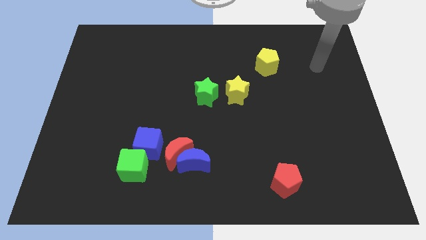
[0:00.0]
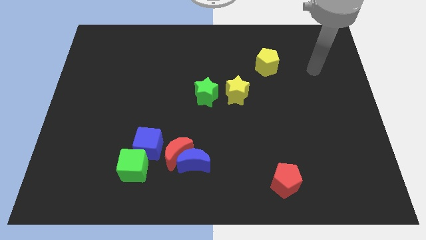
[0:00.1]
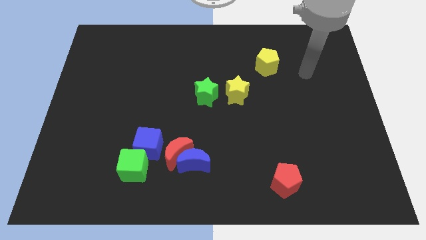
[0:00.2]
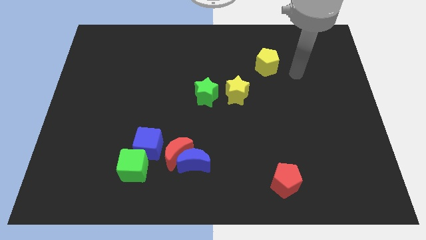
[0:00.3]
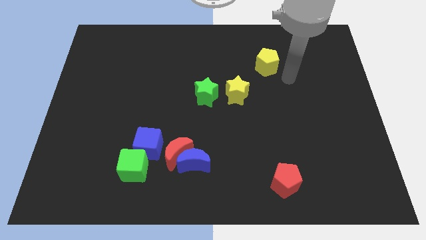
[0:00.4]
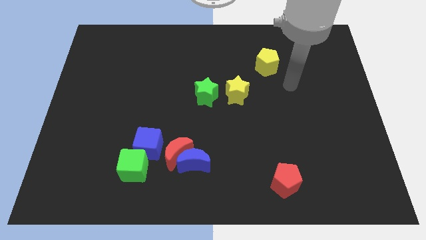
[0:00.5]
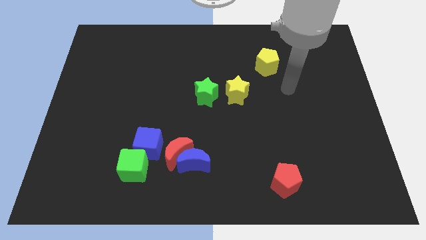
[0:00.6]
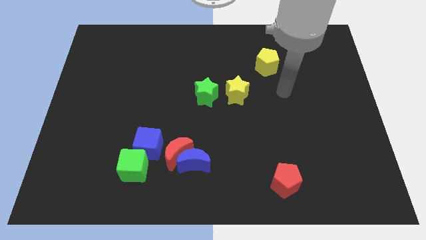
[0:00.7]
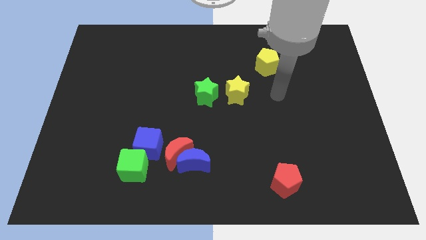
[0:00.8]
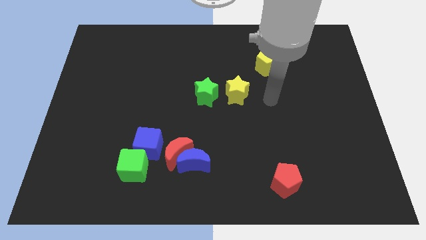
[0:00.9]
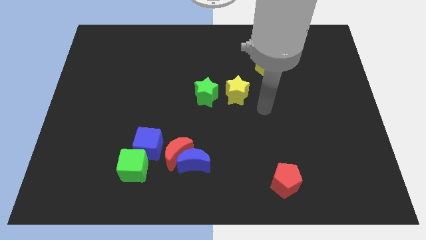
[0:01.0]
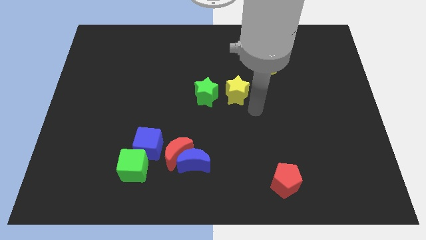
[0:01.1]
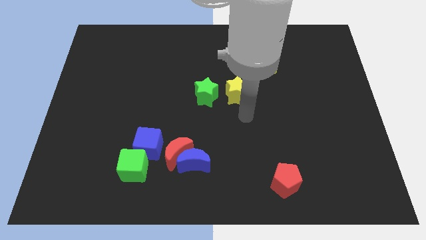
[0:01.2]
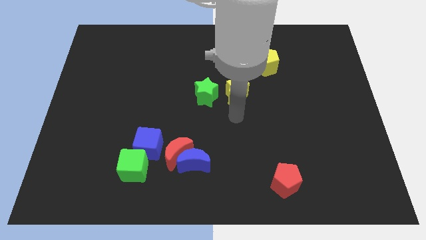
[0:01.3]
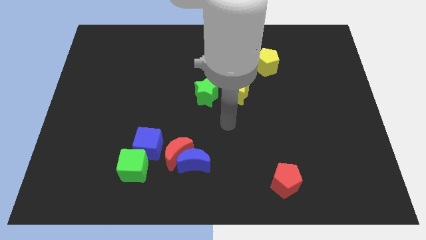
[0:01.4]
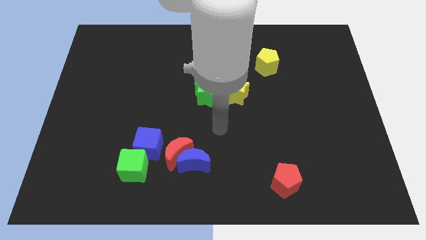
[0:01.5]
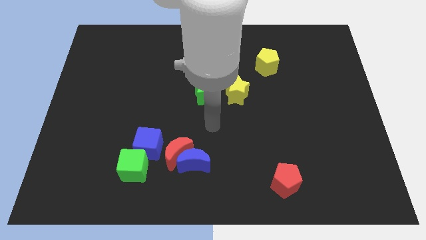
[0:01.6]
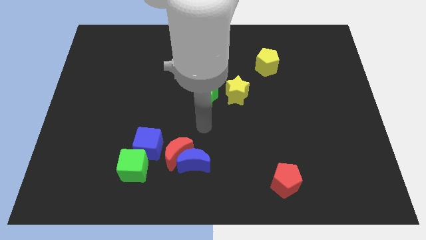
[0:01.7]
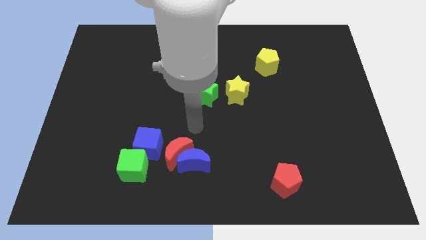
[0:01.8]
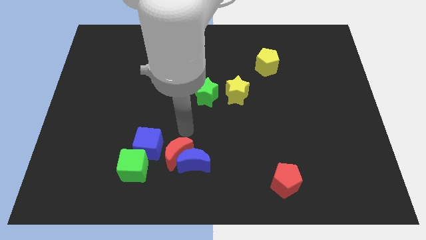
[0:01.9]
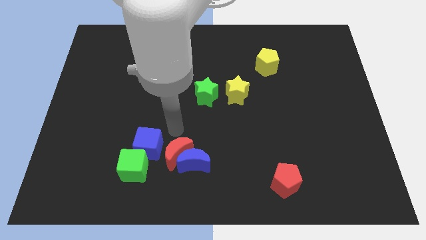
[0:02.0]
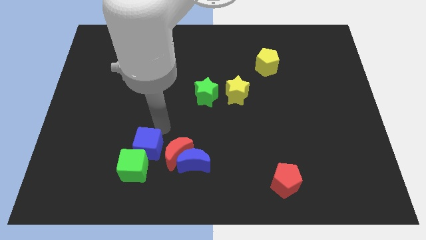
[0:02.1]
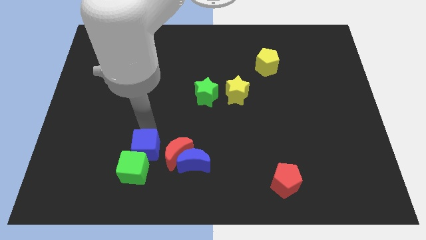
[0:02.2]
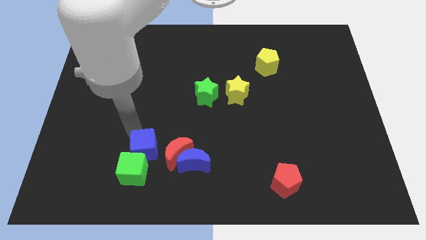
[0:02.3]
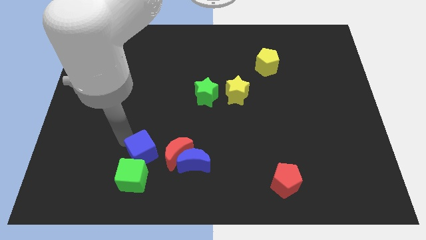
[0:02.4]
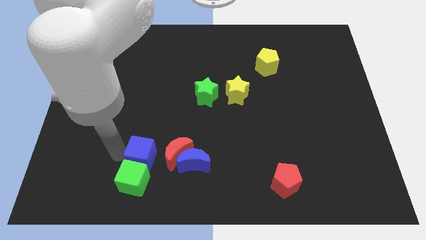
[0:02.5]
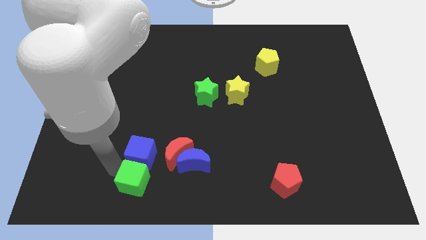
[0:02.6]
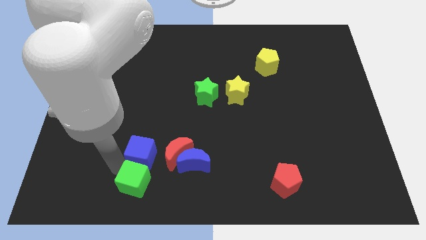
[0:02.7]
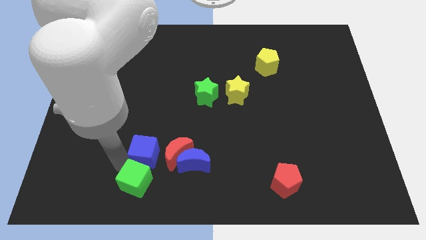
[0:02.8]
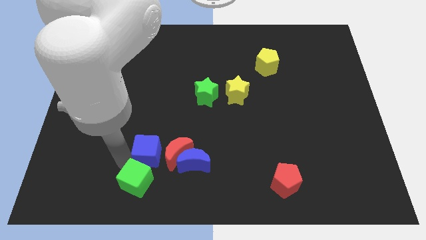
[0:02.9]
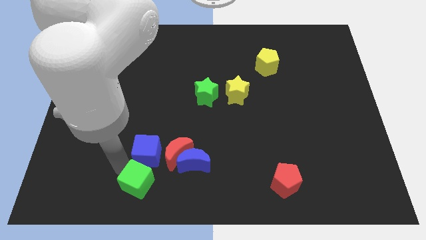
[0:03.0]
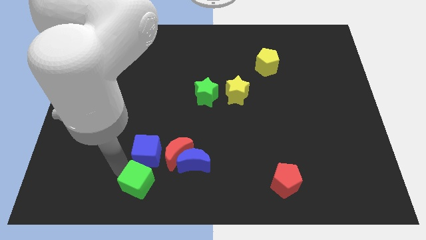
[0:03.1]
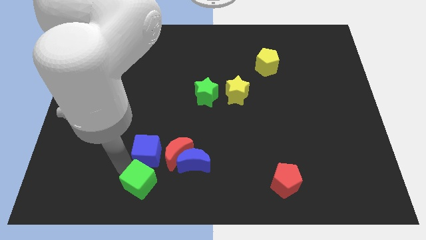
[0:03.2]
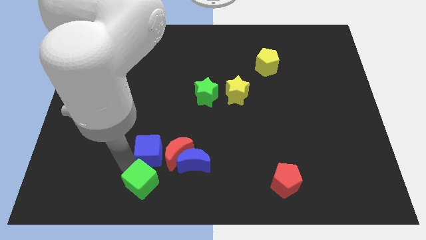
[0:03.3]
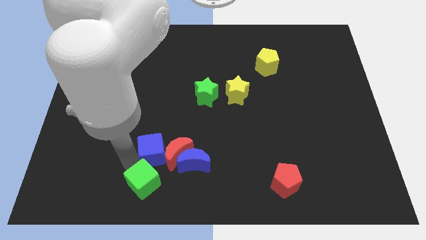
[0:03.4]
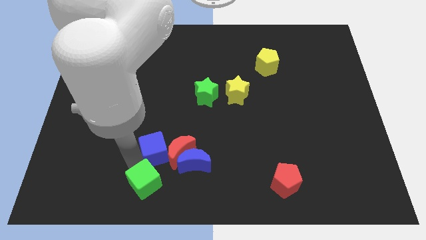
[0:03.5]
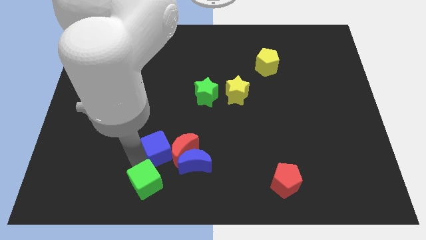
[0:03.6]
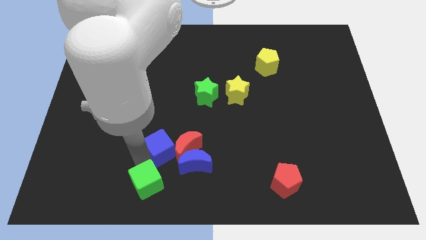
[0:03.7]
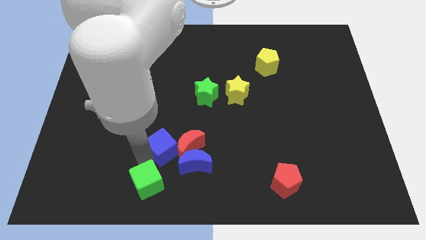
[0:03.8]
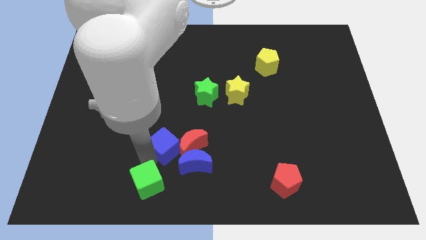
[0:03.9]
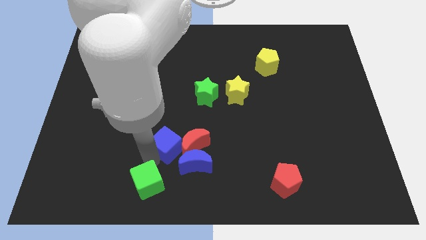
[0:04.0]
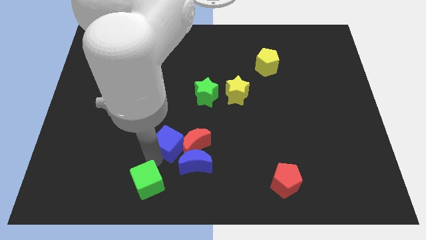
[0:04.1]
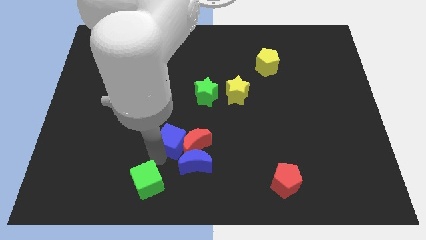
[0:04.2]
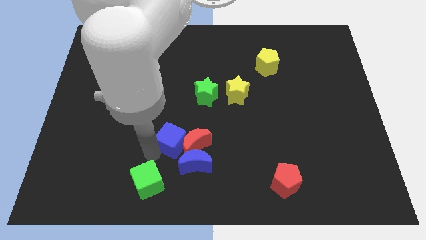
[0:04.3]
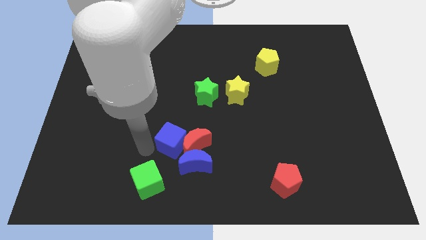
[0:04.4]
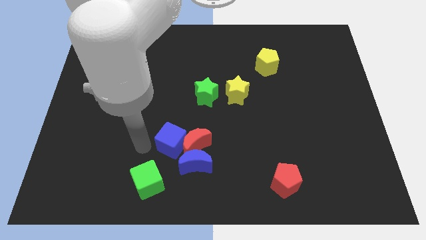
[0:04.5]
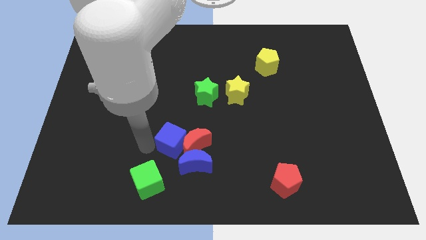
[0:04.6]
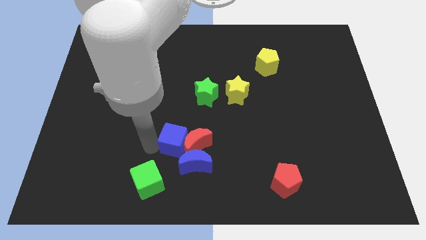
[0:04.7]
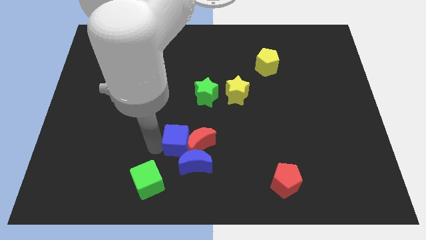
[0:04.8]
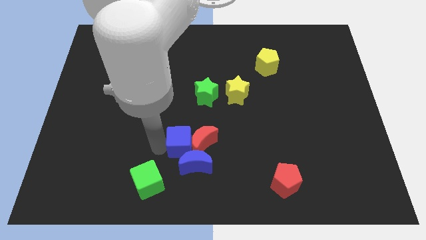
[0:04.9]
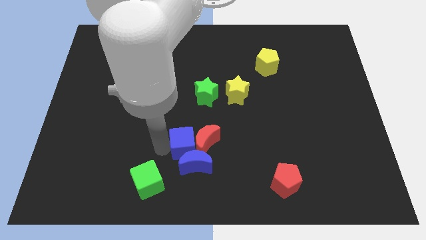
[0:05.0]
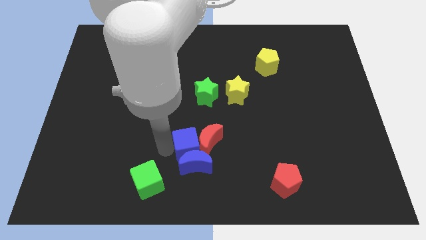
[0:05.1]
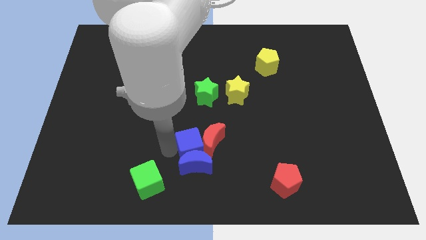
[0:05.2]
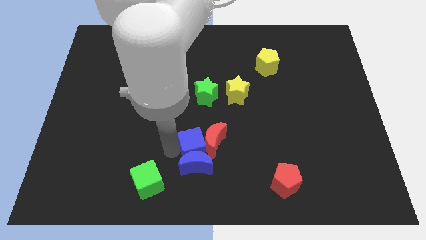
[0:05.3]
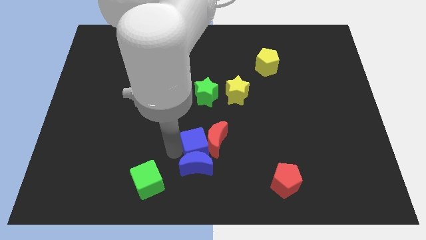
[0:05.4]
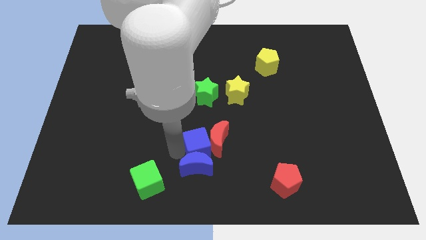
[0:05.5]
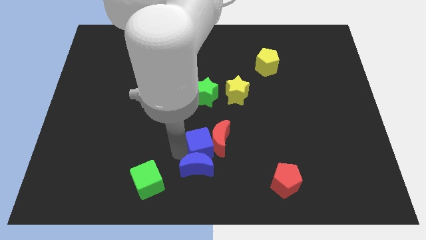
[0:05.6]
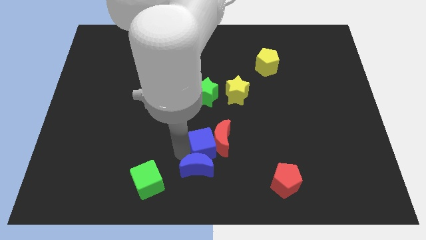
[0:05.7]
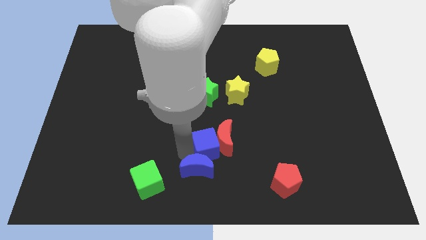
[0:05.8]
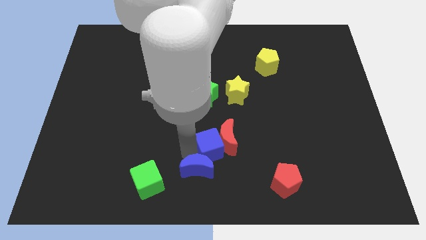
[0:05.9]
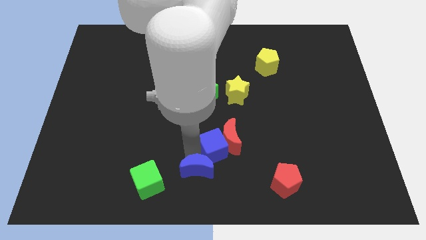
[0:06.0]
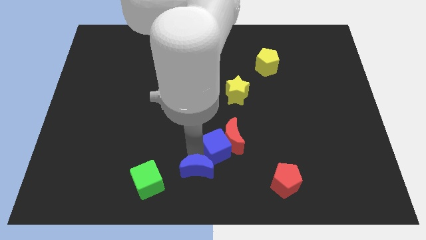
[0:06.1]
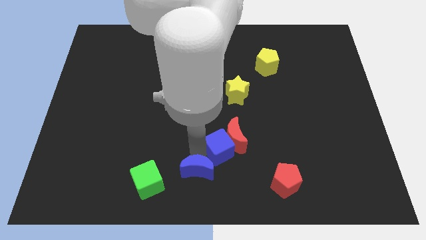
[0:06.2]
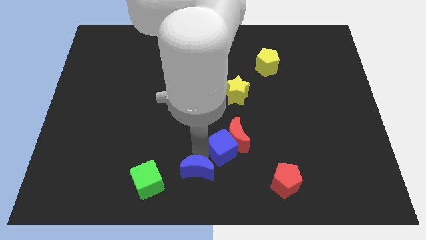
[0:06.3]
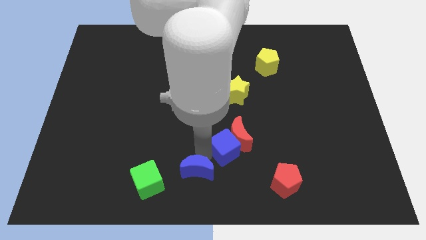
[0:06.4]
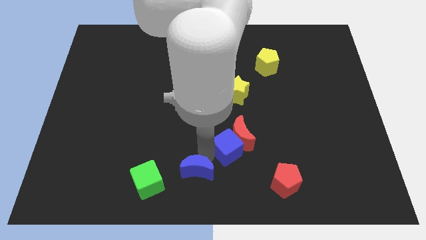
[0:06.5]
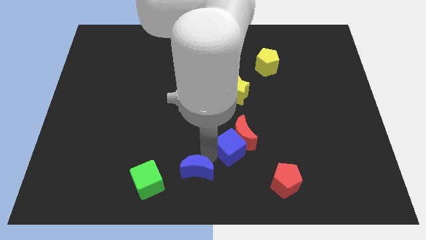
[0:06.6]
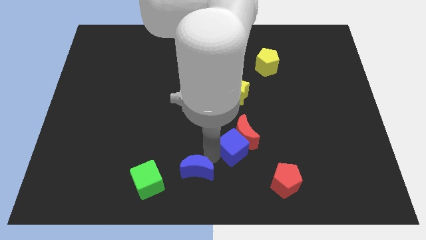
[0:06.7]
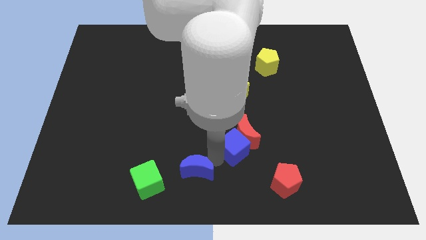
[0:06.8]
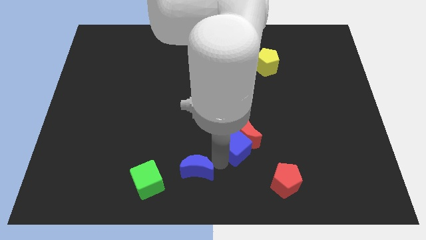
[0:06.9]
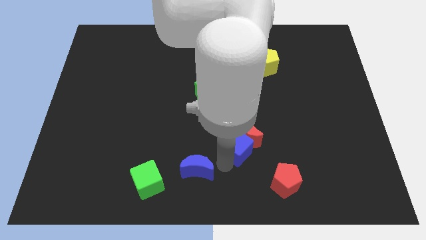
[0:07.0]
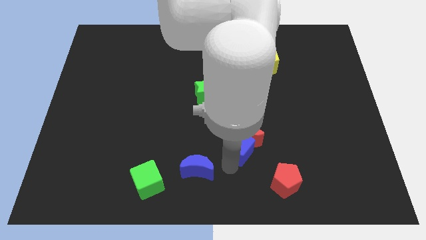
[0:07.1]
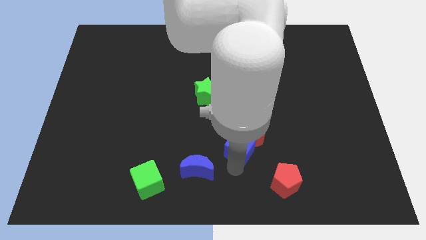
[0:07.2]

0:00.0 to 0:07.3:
move the blue cube to the right

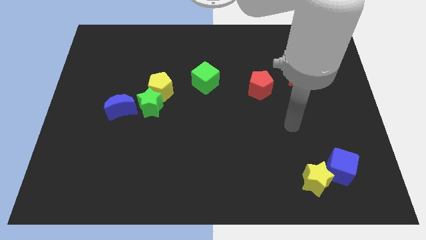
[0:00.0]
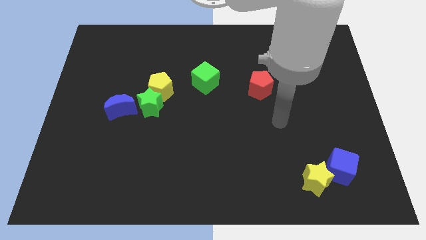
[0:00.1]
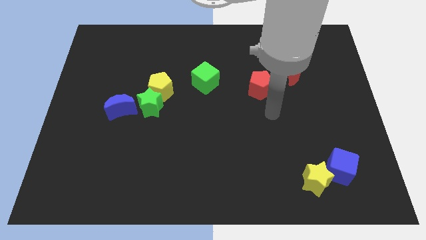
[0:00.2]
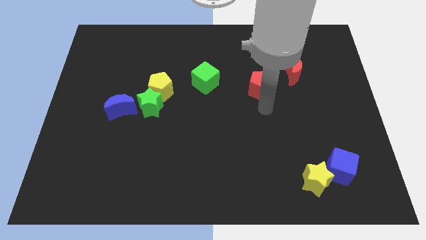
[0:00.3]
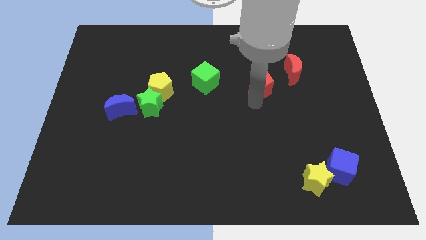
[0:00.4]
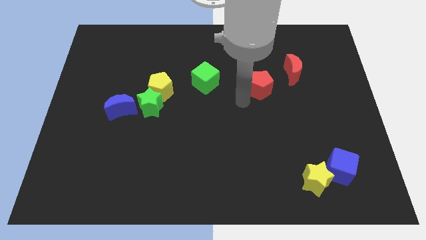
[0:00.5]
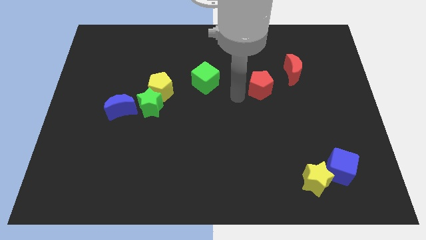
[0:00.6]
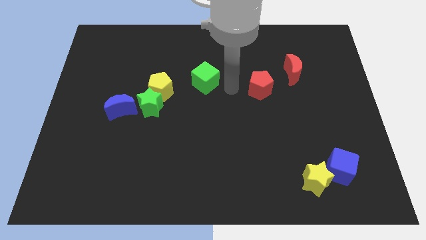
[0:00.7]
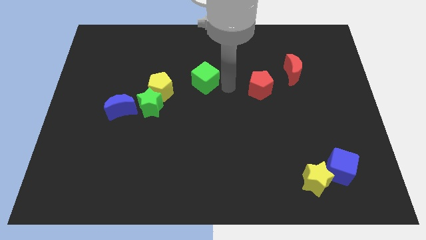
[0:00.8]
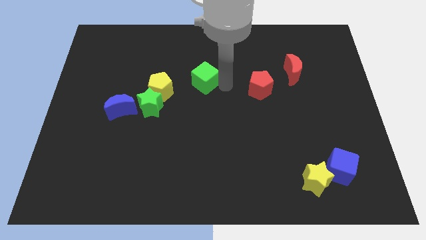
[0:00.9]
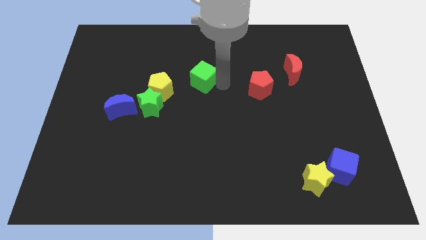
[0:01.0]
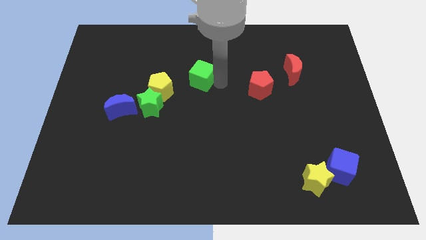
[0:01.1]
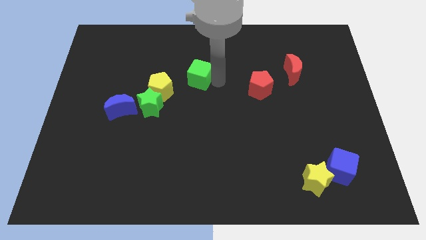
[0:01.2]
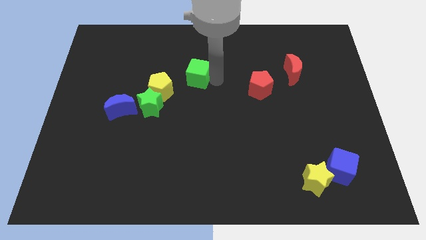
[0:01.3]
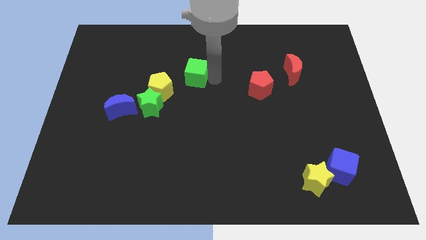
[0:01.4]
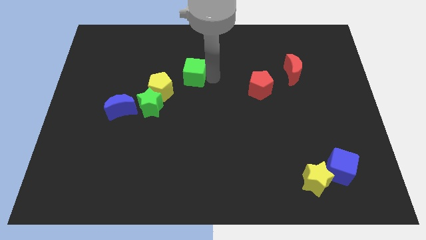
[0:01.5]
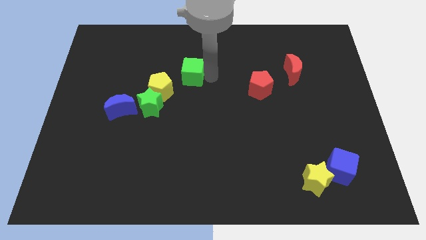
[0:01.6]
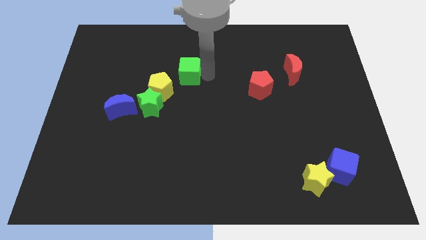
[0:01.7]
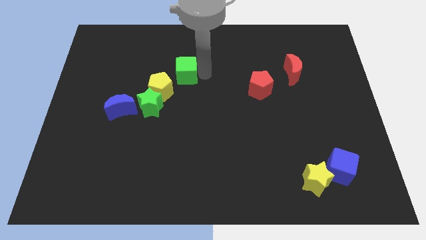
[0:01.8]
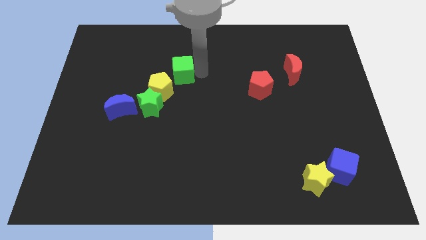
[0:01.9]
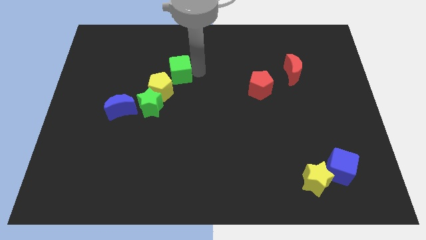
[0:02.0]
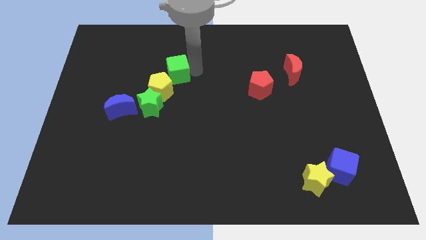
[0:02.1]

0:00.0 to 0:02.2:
slightly move the green cube left
